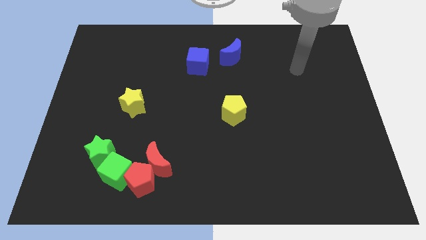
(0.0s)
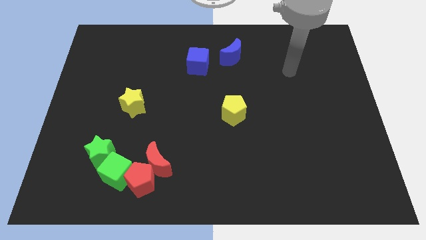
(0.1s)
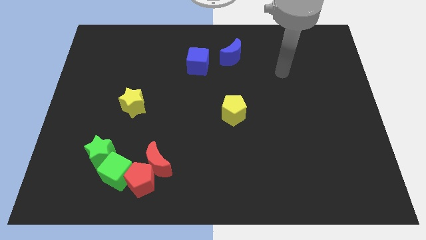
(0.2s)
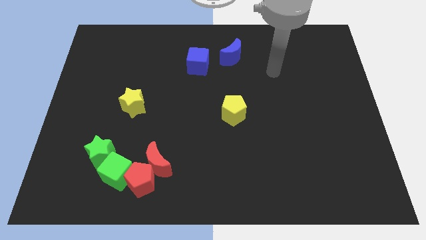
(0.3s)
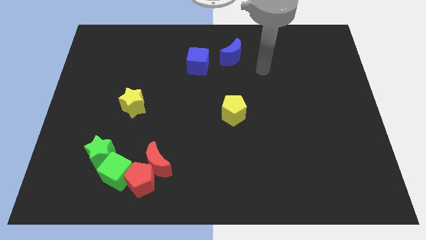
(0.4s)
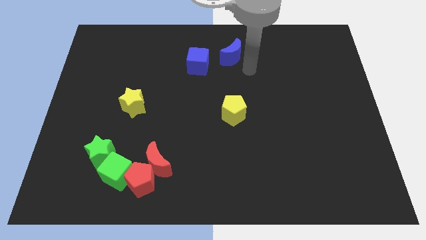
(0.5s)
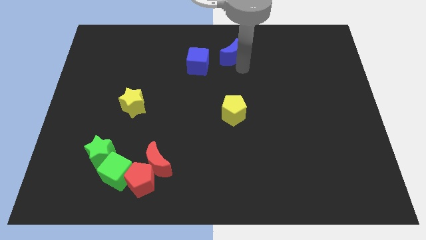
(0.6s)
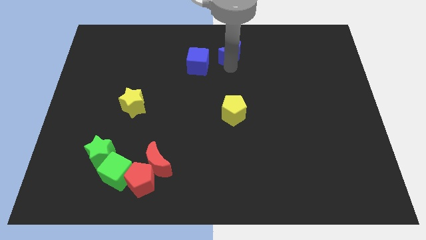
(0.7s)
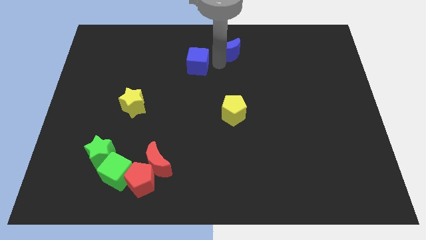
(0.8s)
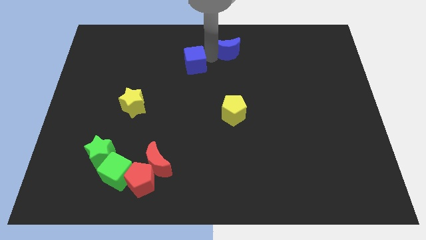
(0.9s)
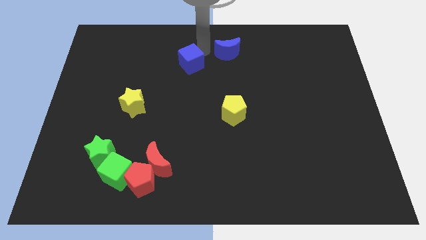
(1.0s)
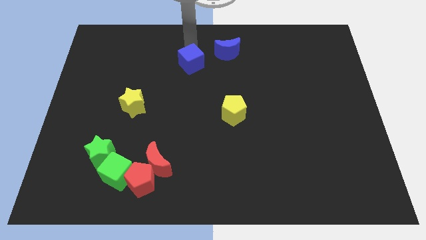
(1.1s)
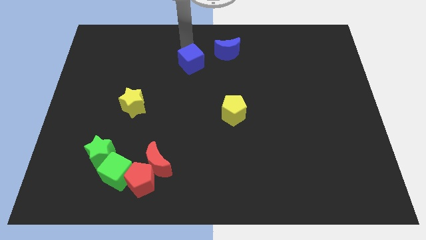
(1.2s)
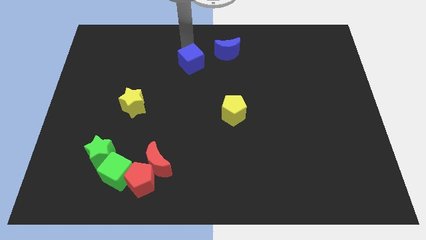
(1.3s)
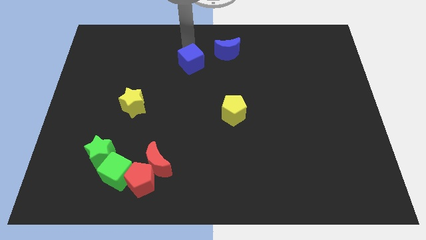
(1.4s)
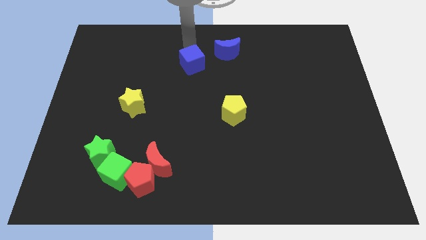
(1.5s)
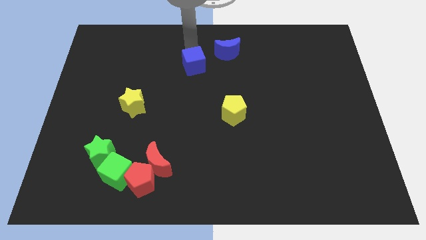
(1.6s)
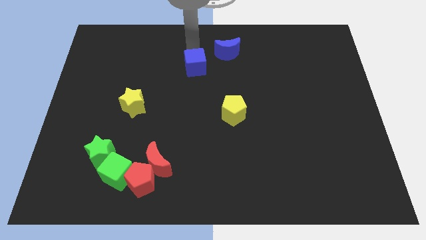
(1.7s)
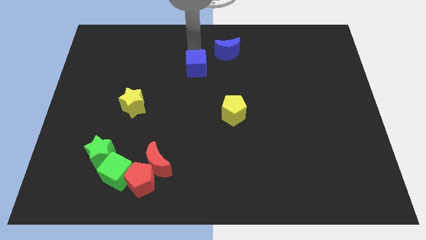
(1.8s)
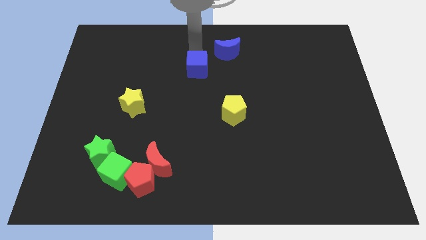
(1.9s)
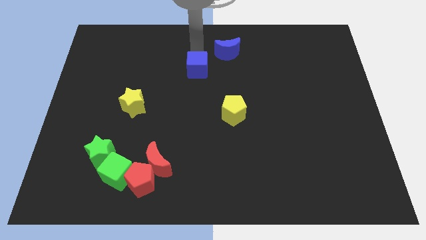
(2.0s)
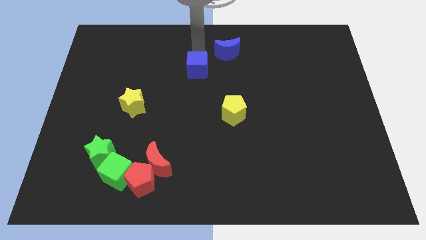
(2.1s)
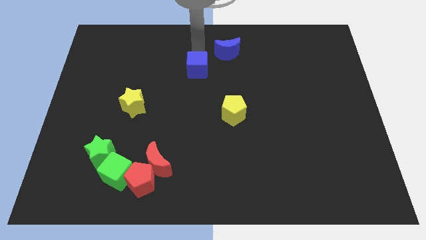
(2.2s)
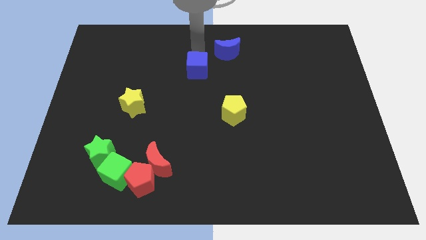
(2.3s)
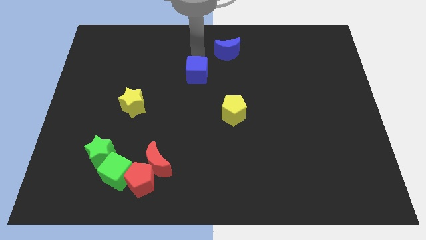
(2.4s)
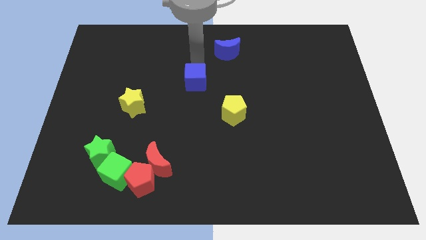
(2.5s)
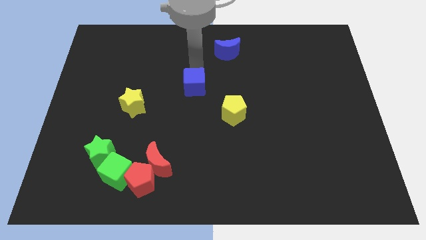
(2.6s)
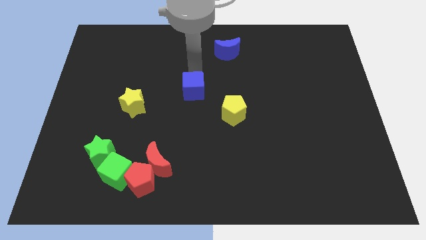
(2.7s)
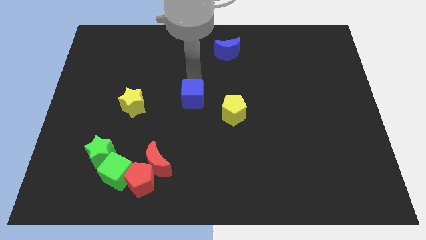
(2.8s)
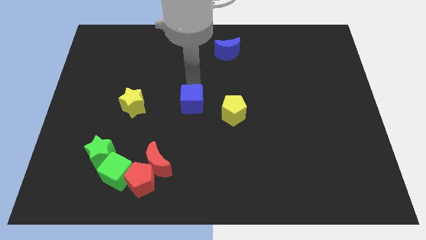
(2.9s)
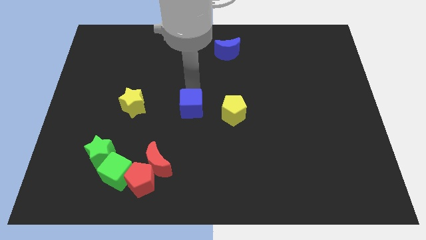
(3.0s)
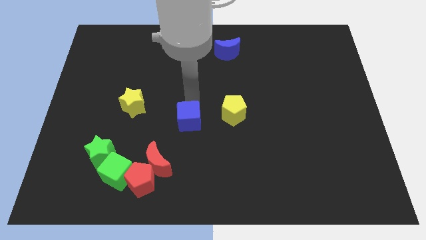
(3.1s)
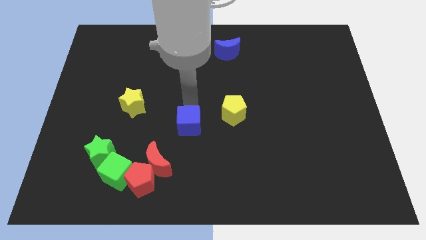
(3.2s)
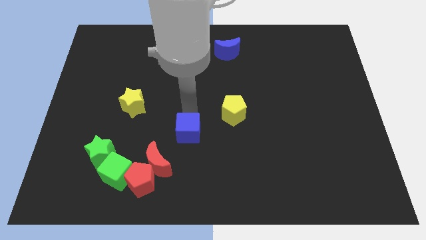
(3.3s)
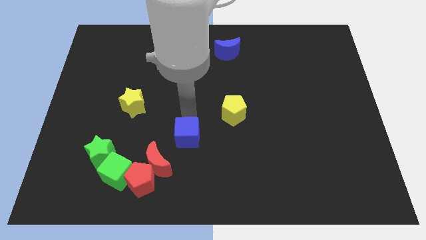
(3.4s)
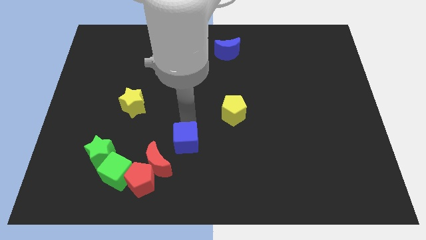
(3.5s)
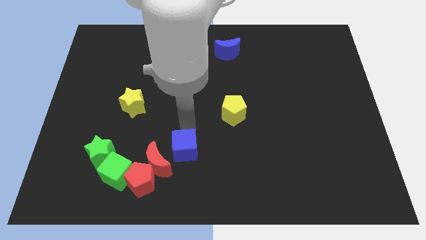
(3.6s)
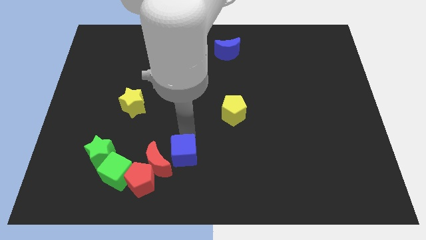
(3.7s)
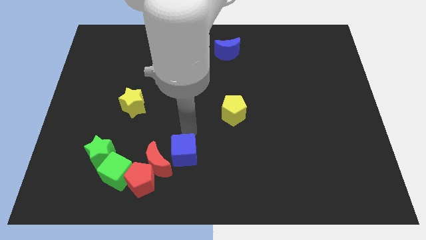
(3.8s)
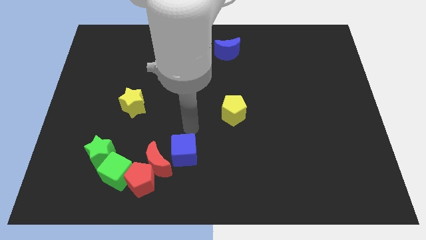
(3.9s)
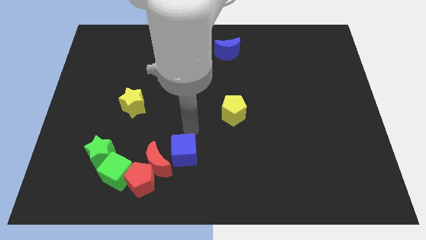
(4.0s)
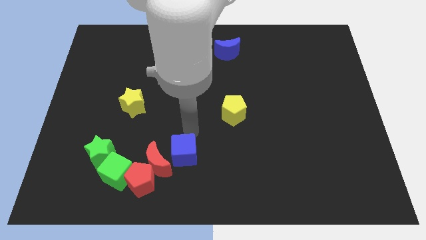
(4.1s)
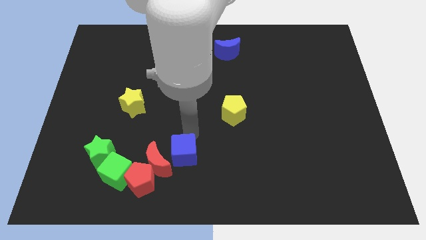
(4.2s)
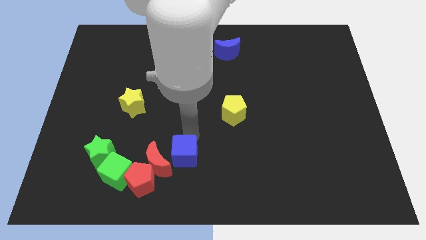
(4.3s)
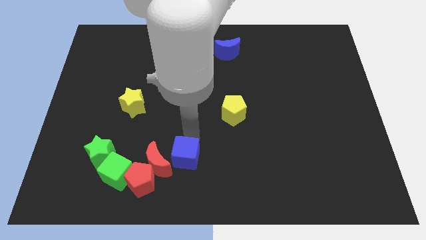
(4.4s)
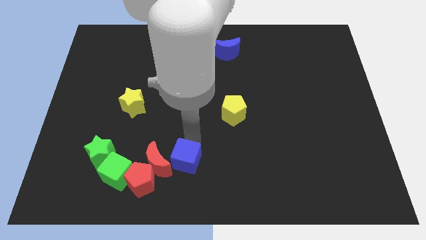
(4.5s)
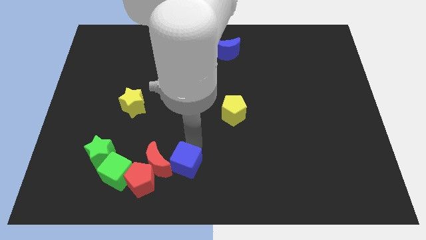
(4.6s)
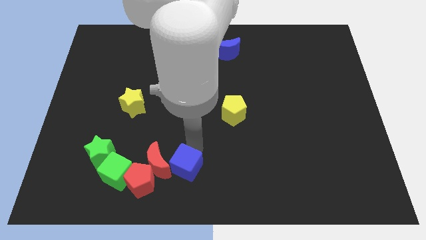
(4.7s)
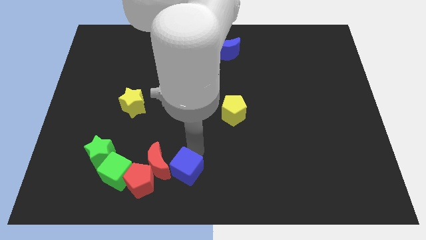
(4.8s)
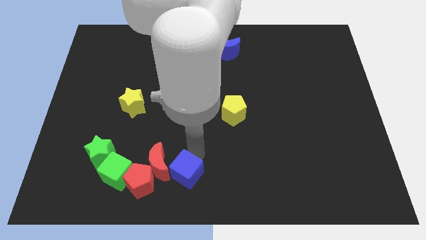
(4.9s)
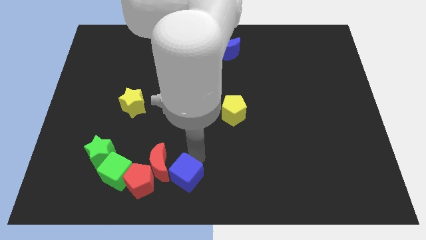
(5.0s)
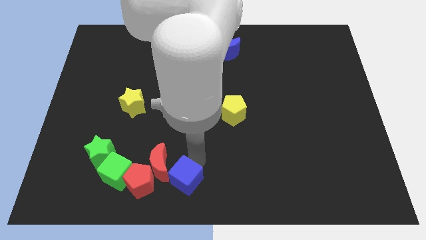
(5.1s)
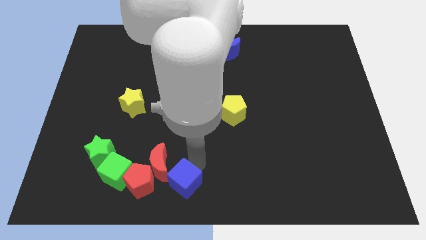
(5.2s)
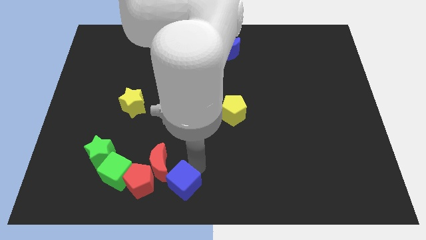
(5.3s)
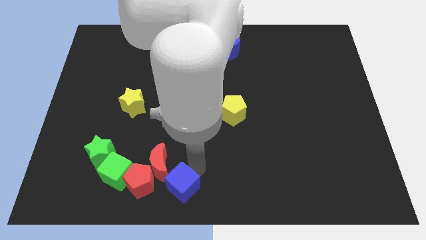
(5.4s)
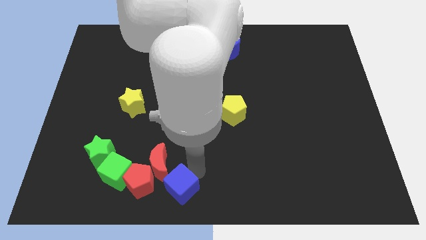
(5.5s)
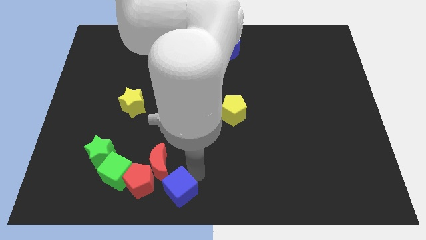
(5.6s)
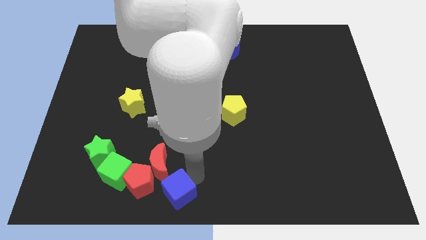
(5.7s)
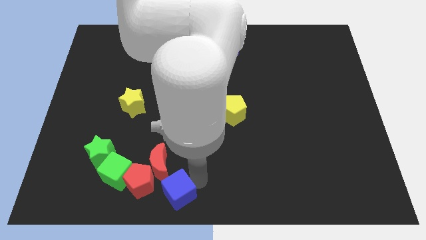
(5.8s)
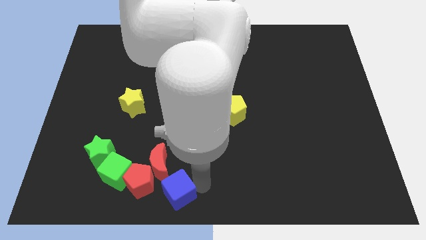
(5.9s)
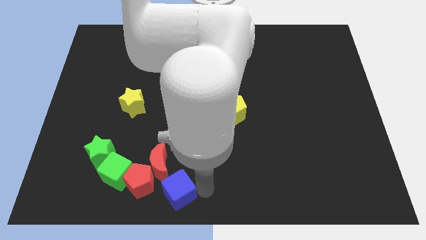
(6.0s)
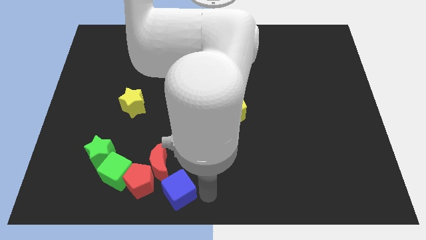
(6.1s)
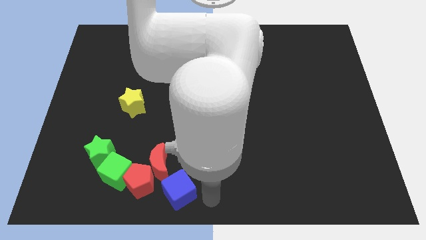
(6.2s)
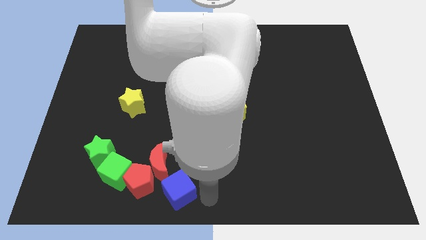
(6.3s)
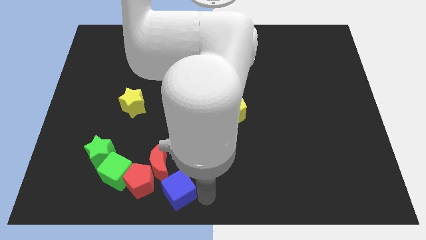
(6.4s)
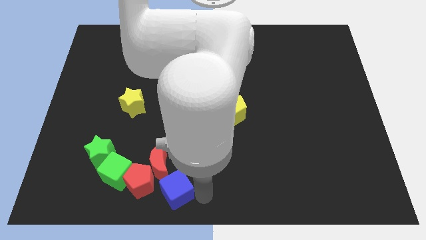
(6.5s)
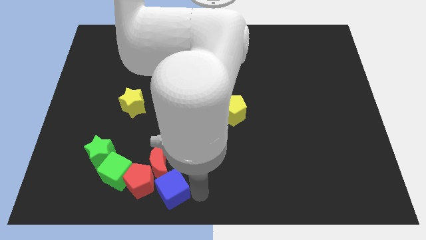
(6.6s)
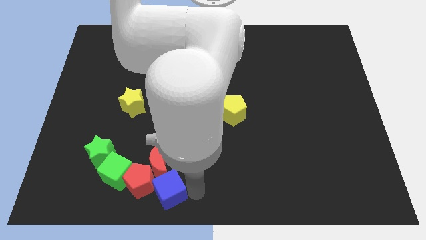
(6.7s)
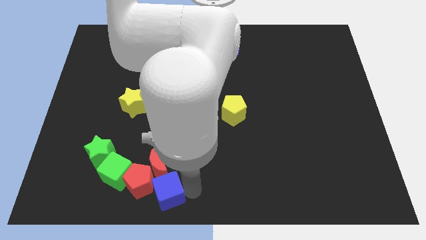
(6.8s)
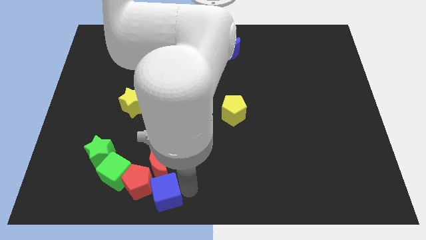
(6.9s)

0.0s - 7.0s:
slide the blue cube to the red pentagon

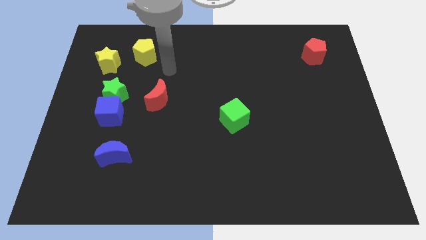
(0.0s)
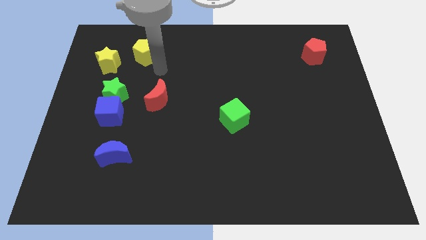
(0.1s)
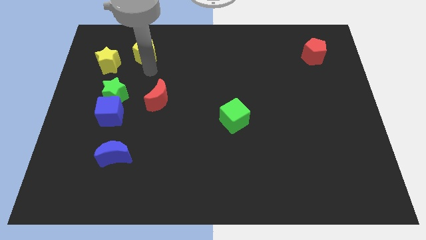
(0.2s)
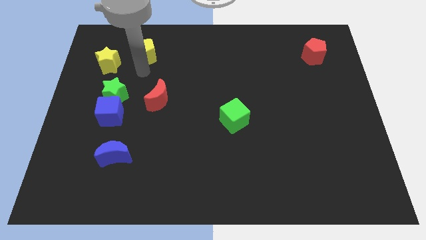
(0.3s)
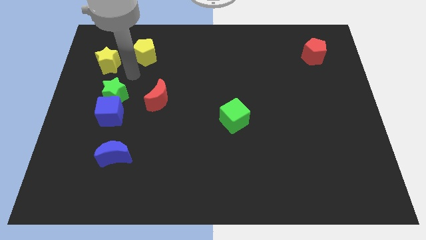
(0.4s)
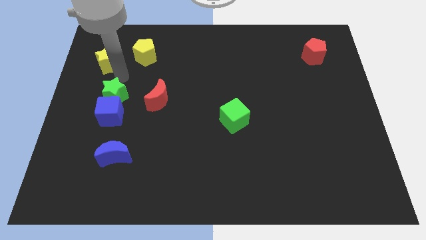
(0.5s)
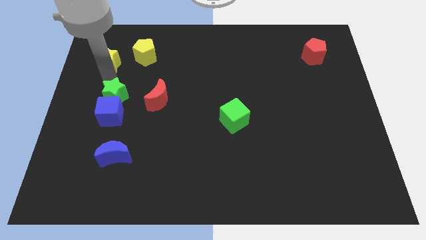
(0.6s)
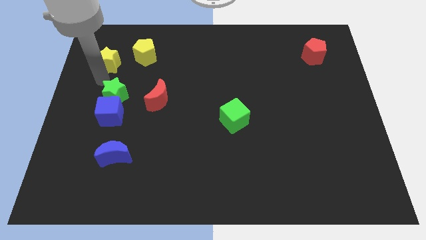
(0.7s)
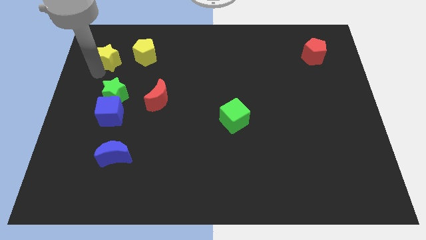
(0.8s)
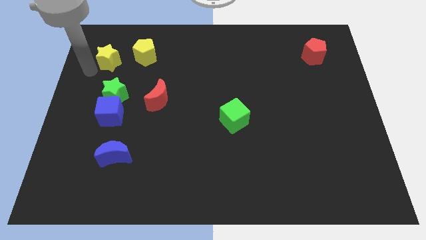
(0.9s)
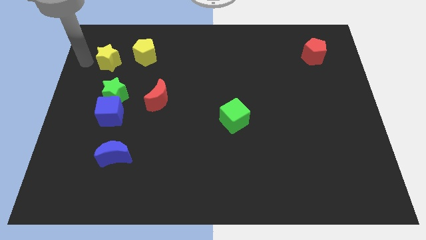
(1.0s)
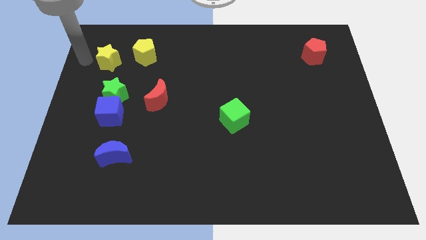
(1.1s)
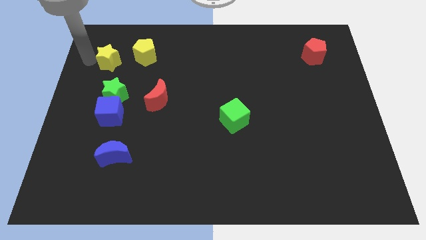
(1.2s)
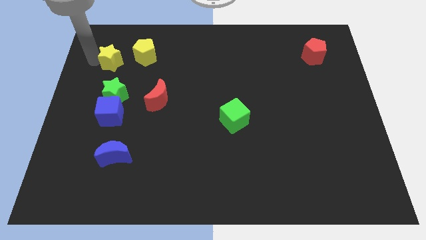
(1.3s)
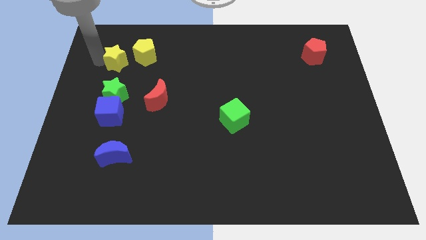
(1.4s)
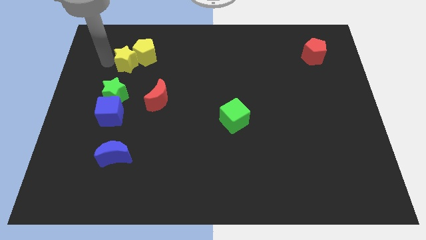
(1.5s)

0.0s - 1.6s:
move the yellow star to the yellow pentagon
